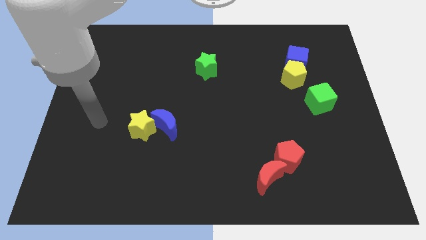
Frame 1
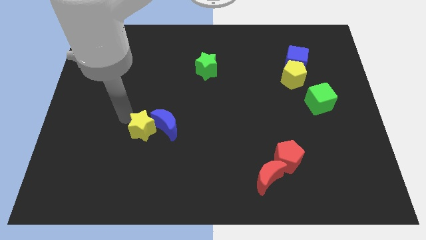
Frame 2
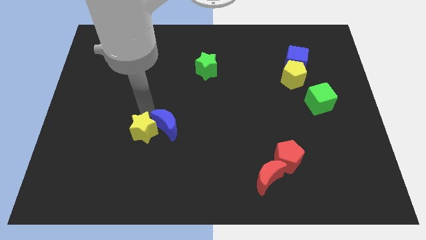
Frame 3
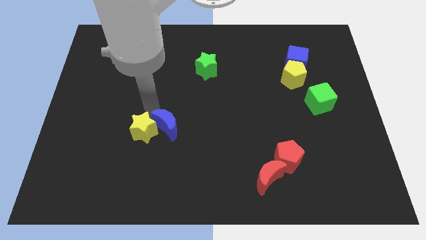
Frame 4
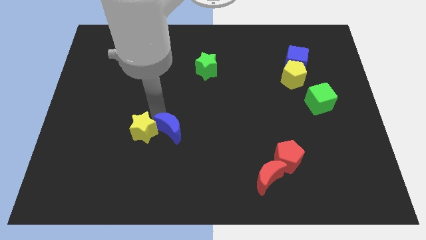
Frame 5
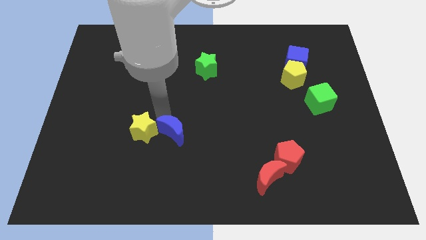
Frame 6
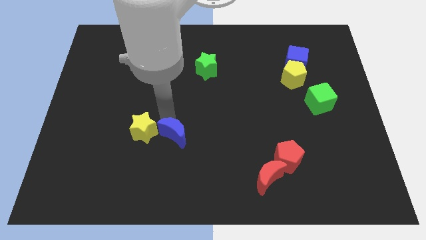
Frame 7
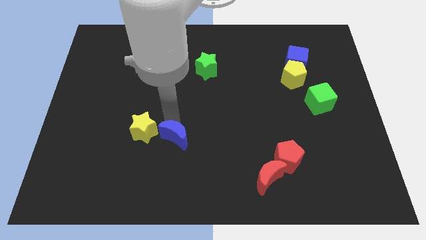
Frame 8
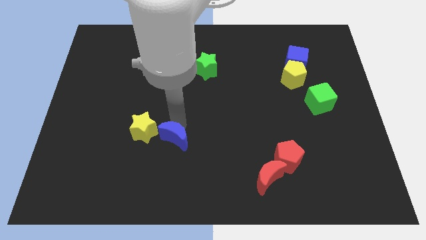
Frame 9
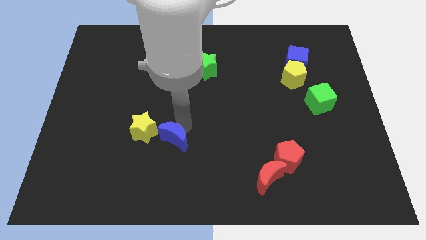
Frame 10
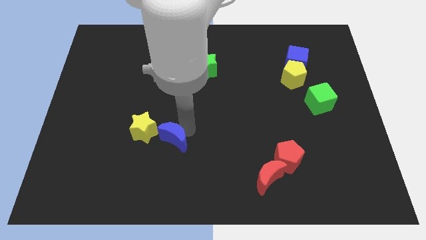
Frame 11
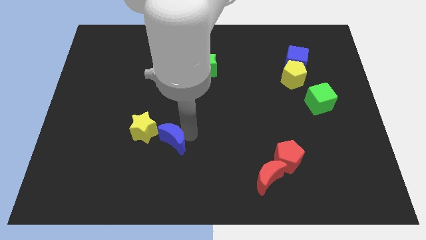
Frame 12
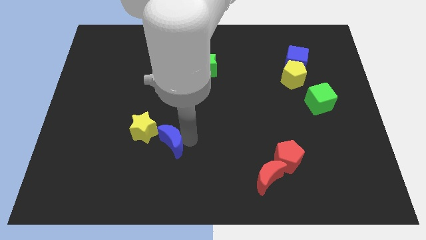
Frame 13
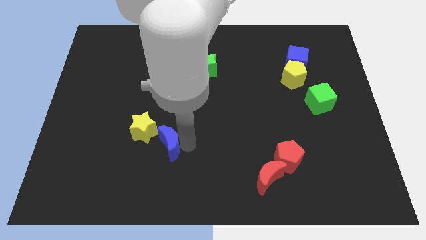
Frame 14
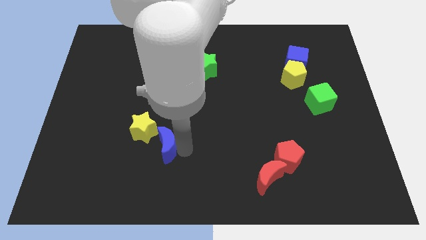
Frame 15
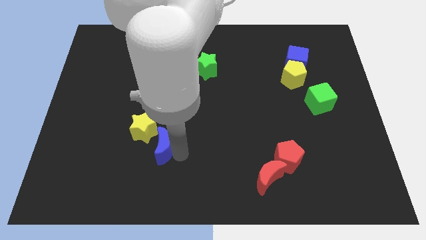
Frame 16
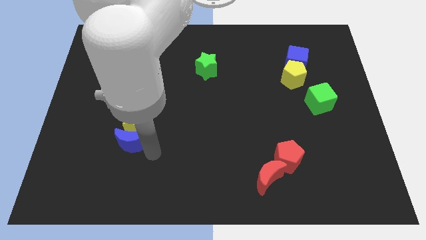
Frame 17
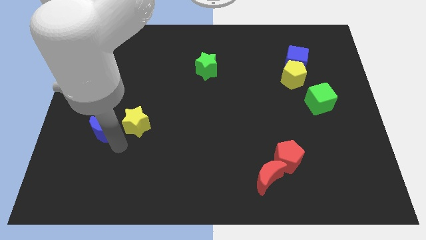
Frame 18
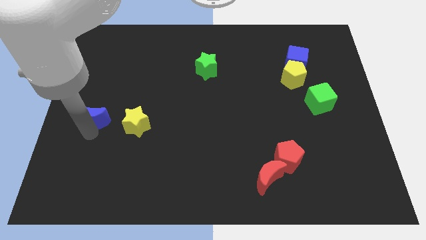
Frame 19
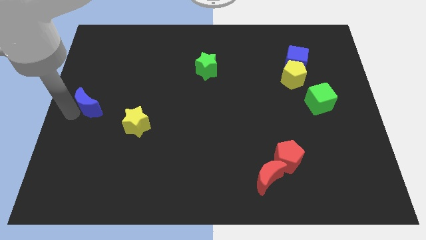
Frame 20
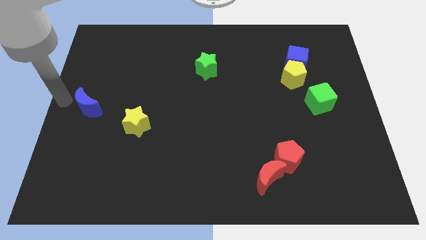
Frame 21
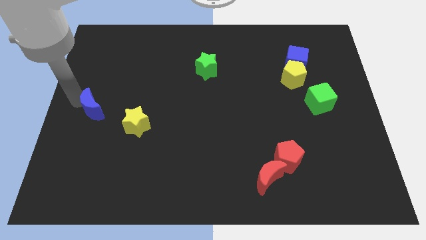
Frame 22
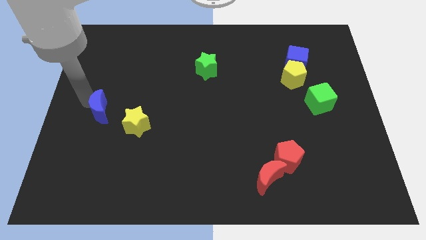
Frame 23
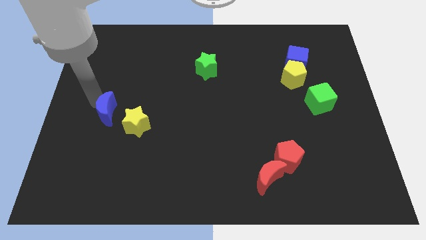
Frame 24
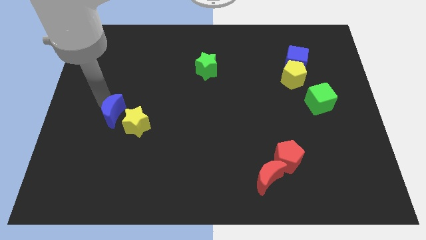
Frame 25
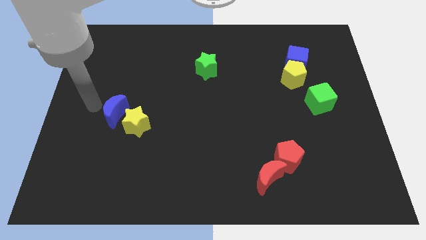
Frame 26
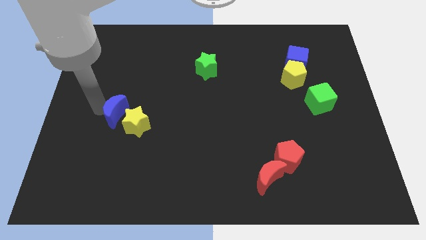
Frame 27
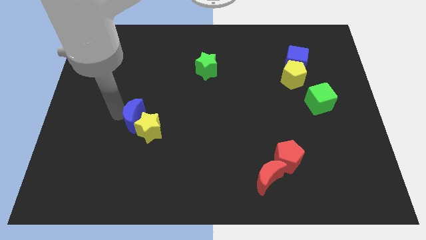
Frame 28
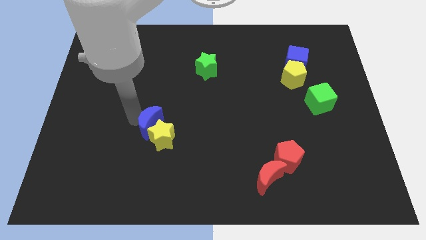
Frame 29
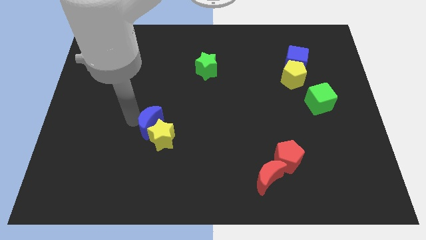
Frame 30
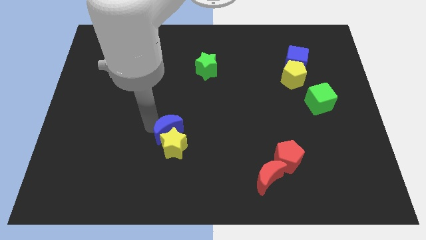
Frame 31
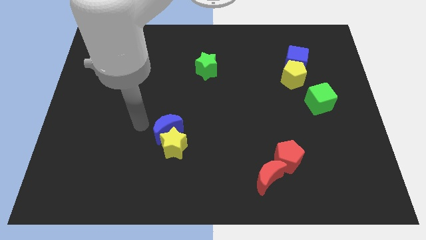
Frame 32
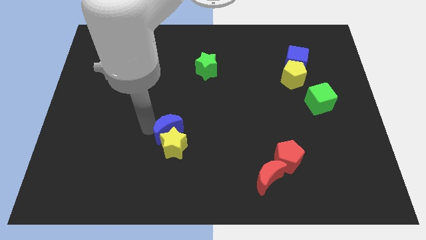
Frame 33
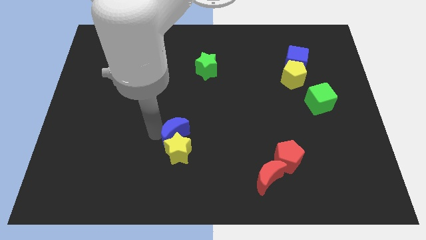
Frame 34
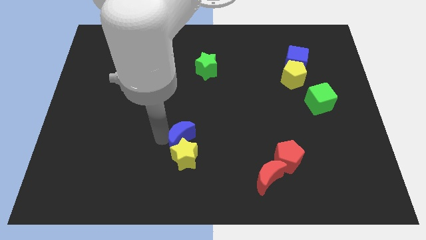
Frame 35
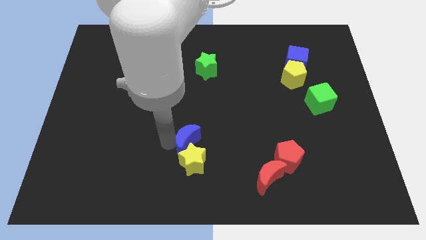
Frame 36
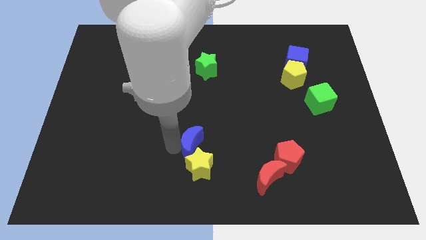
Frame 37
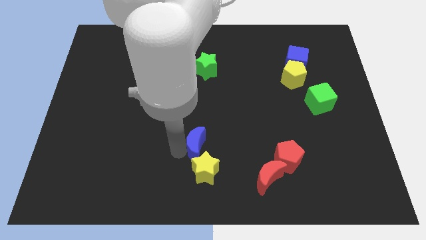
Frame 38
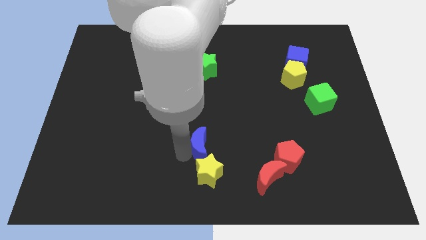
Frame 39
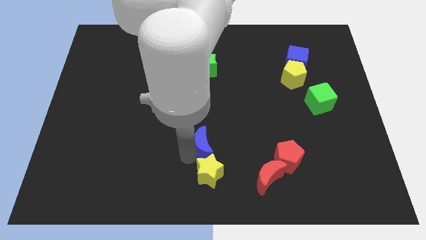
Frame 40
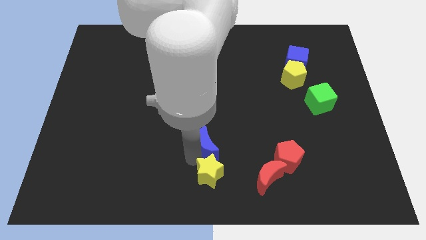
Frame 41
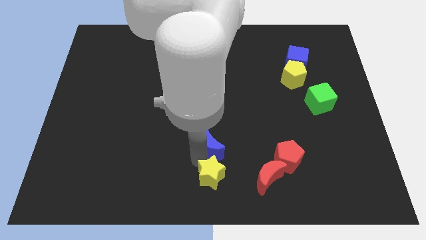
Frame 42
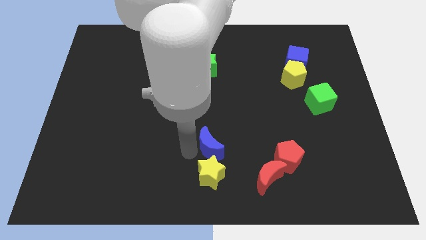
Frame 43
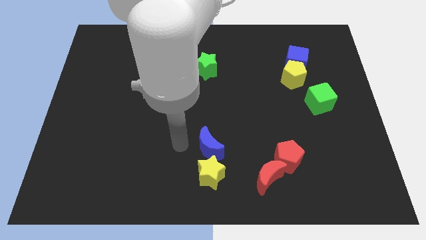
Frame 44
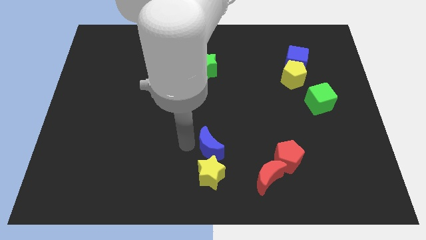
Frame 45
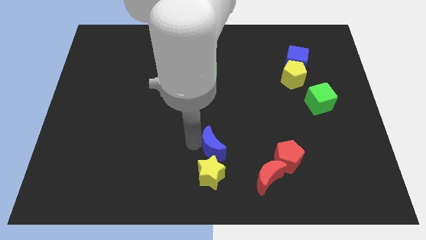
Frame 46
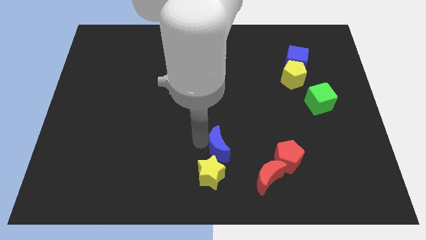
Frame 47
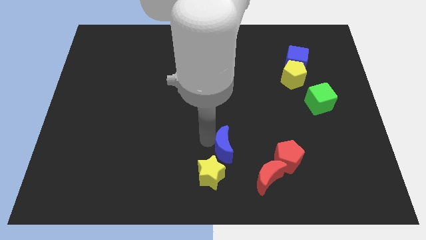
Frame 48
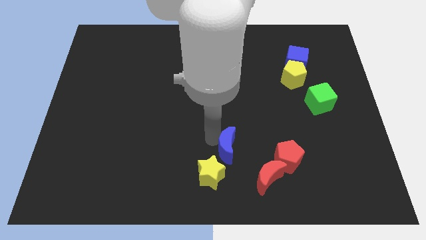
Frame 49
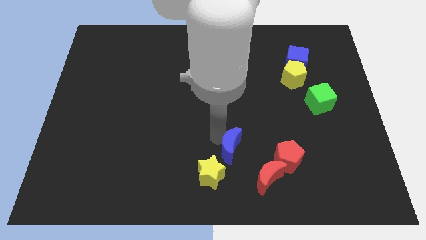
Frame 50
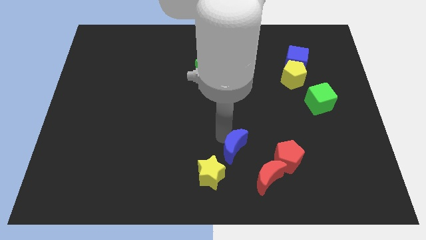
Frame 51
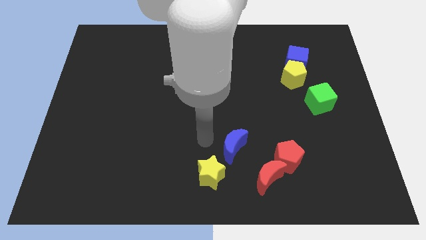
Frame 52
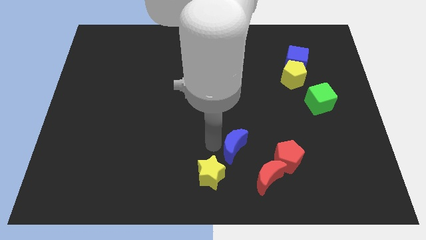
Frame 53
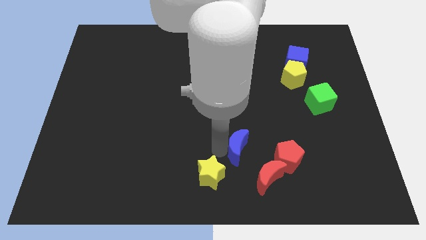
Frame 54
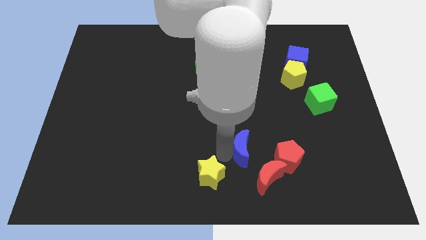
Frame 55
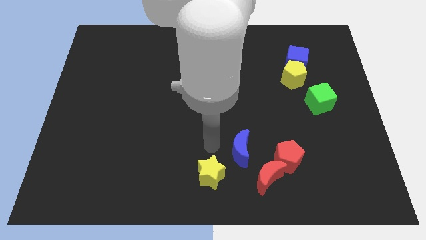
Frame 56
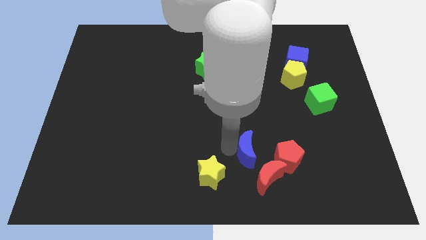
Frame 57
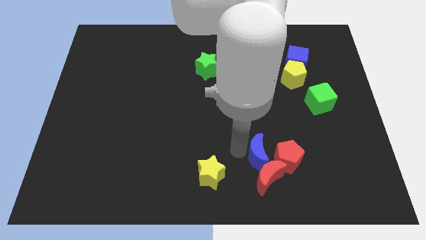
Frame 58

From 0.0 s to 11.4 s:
push the blue moon close to the red pentagon

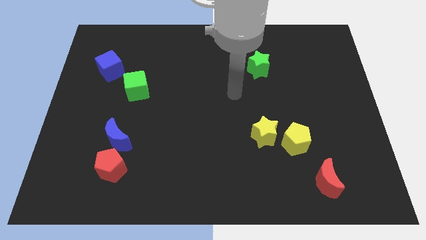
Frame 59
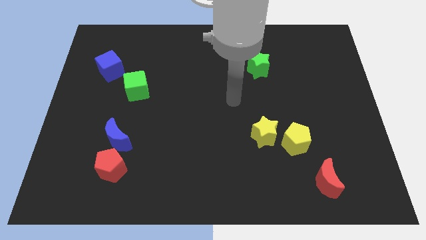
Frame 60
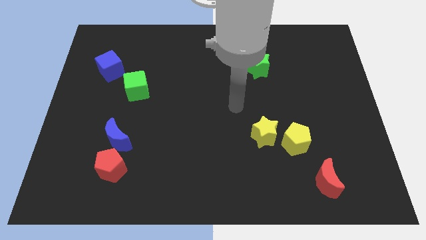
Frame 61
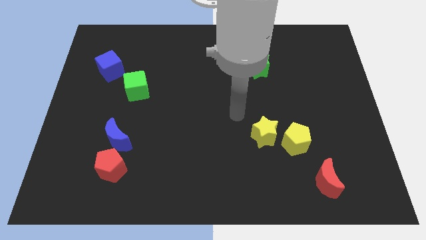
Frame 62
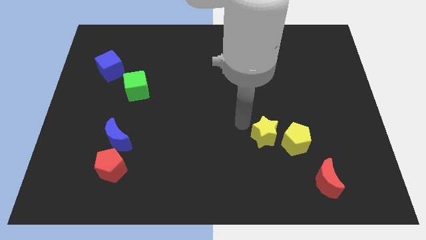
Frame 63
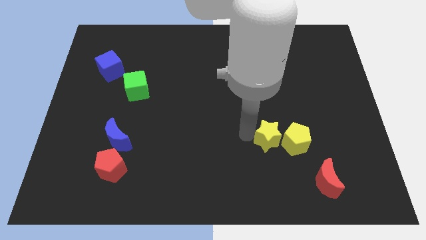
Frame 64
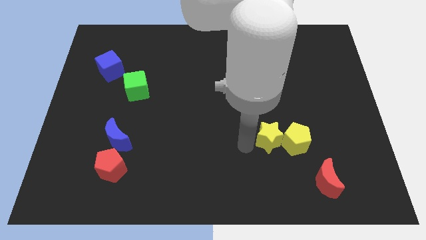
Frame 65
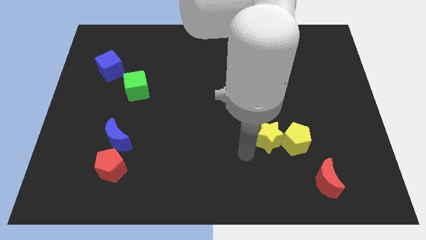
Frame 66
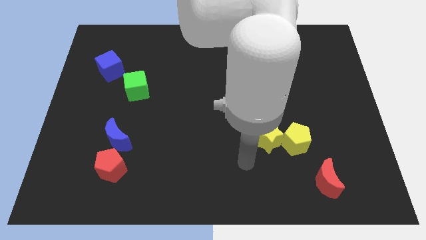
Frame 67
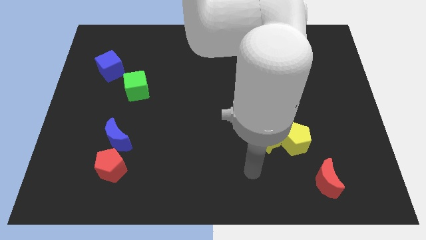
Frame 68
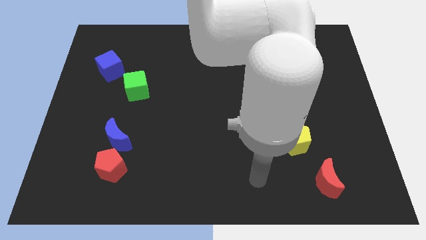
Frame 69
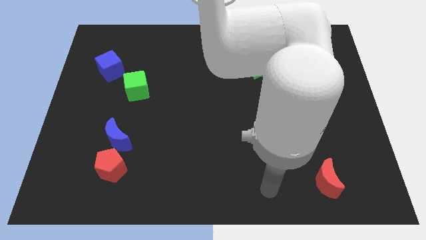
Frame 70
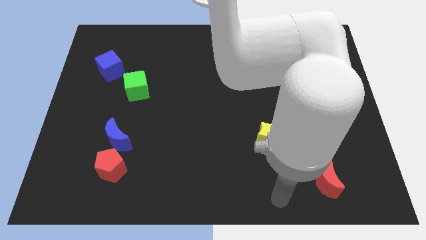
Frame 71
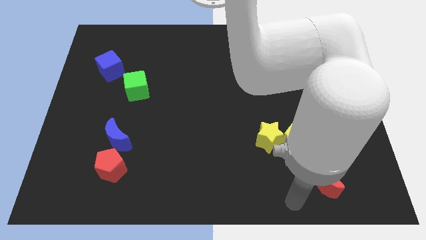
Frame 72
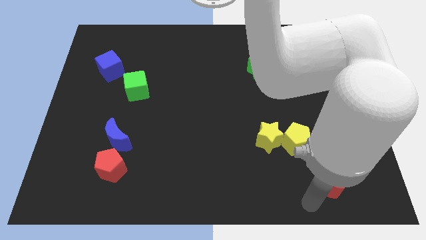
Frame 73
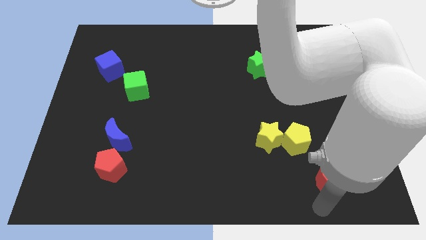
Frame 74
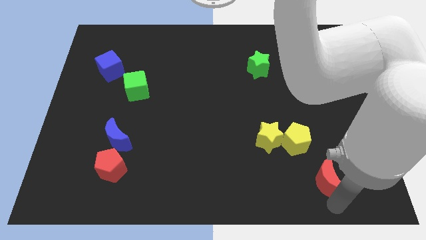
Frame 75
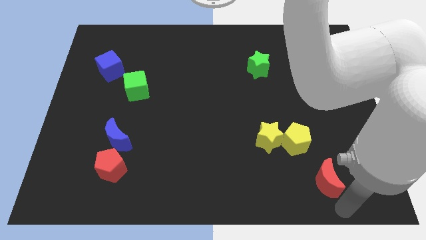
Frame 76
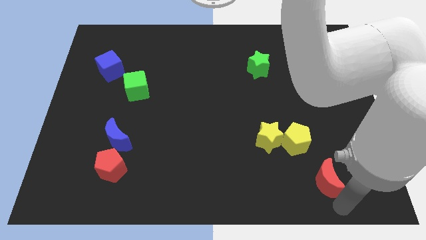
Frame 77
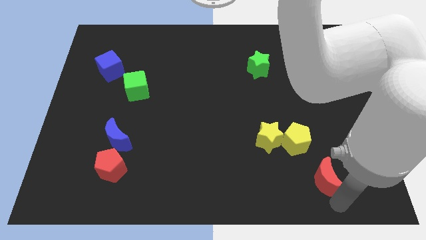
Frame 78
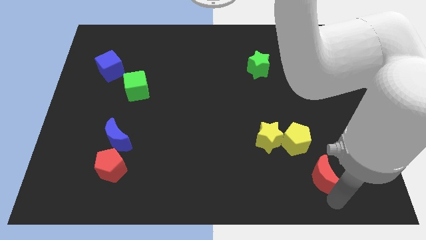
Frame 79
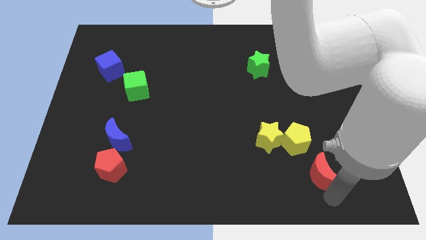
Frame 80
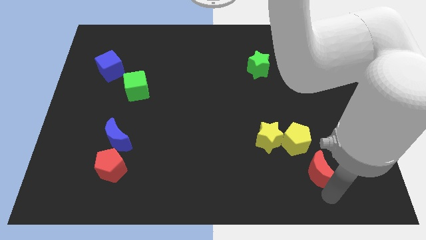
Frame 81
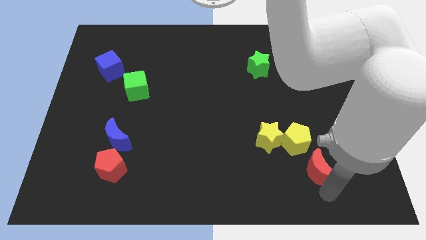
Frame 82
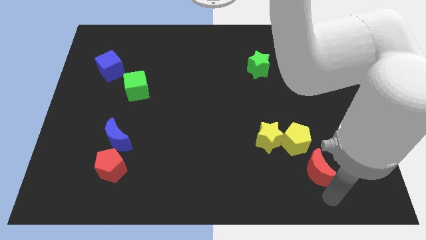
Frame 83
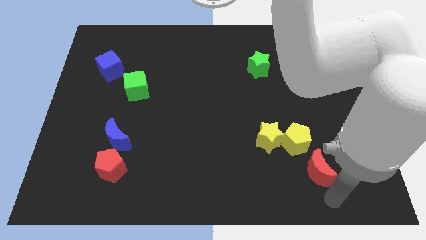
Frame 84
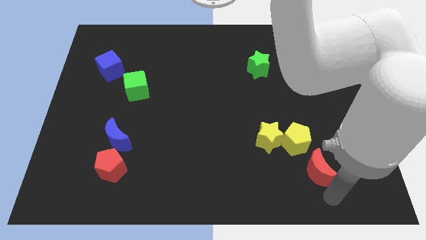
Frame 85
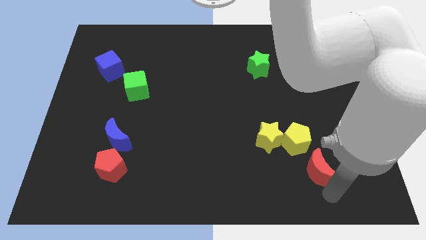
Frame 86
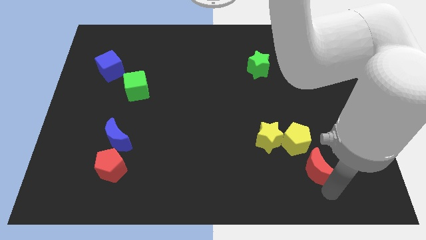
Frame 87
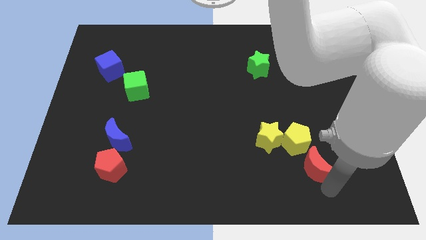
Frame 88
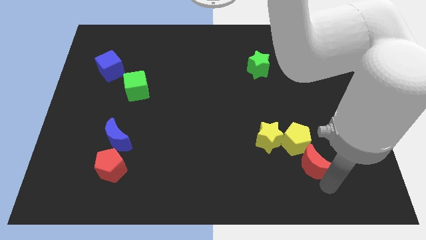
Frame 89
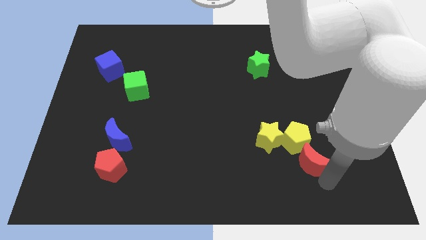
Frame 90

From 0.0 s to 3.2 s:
push the red moon towards the yellow pentagon
